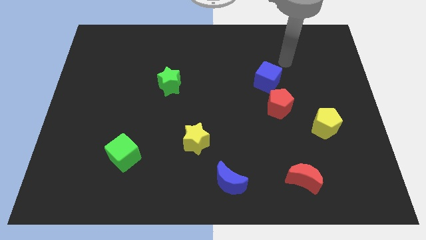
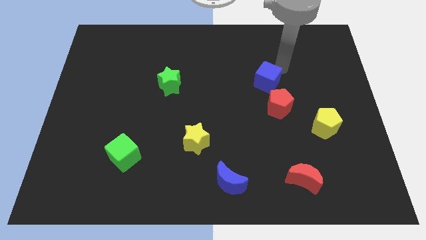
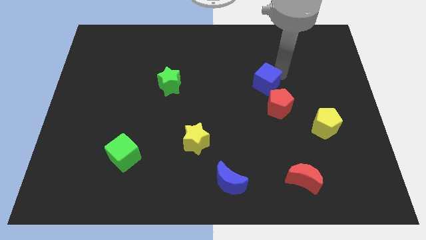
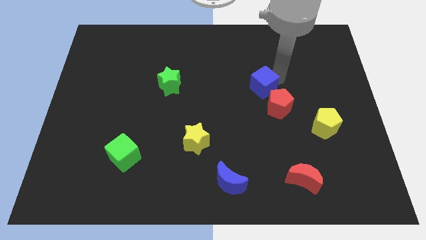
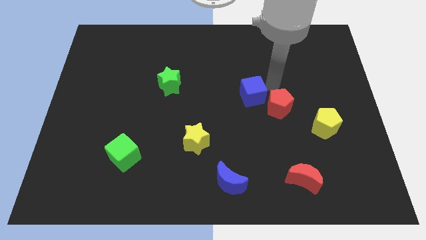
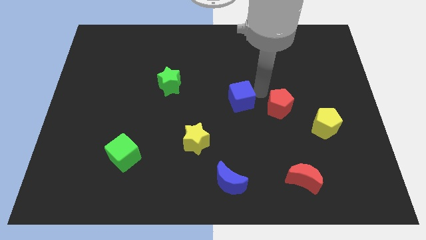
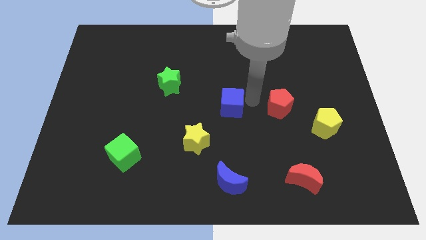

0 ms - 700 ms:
pull the red pentagon apart from the blue cube

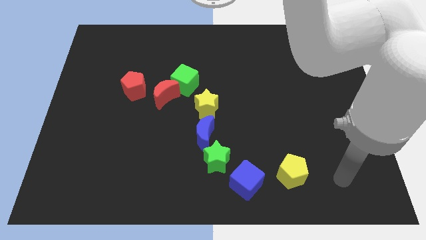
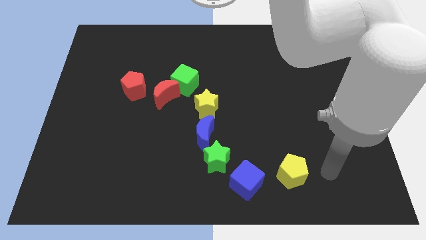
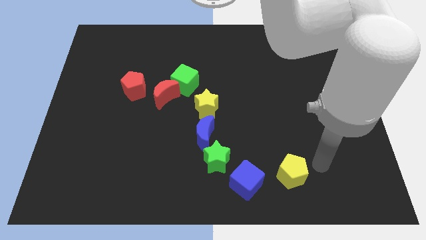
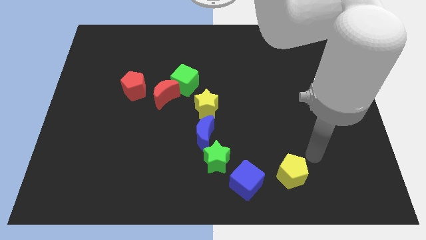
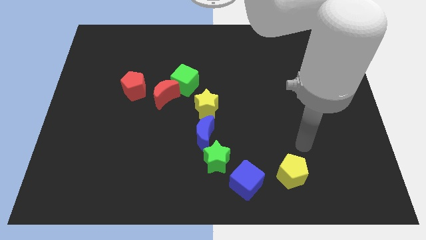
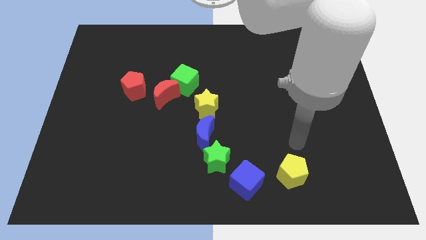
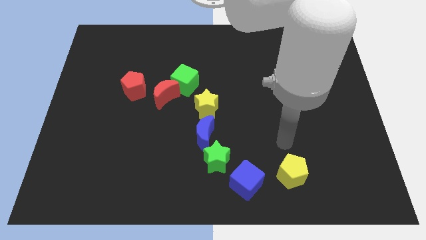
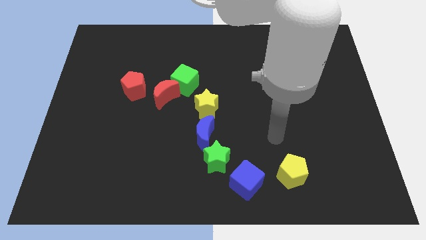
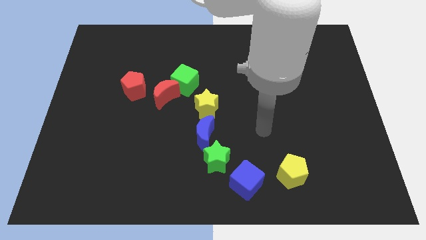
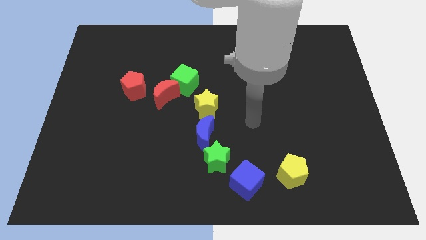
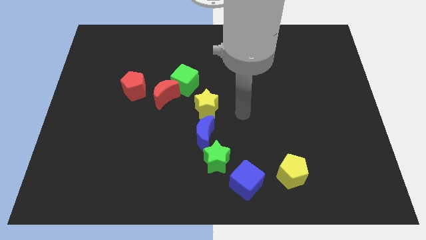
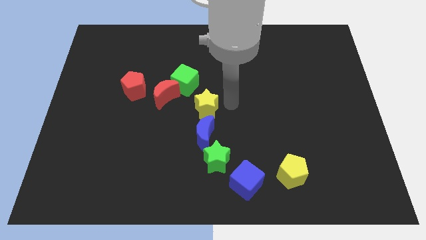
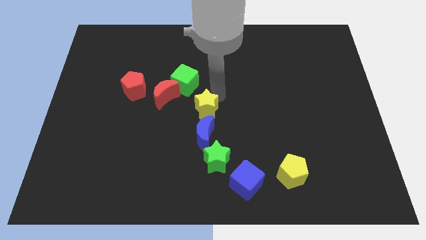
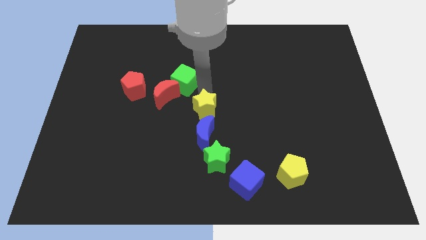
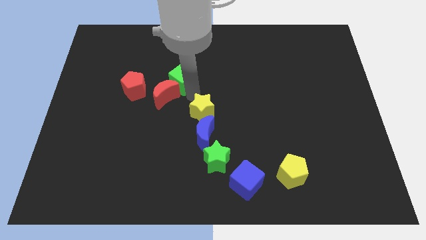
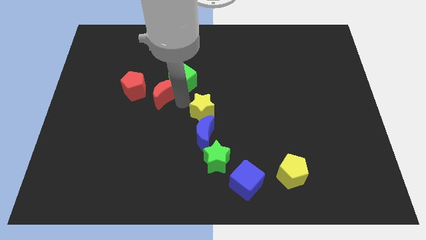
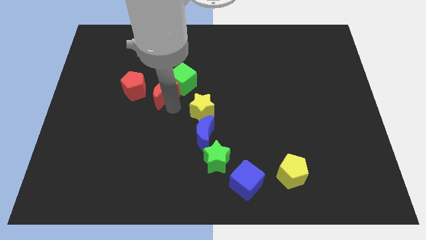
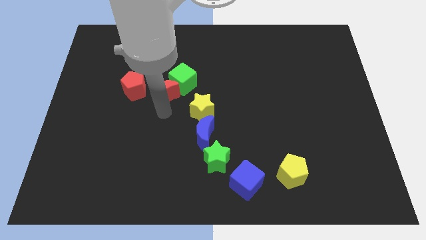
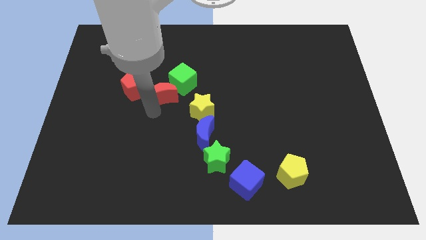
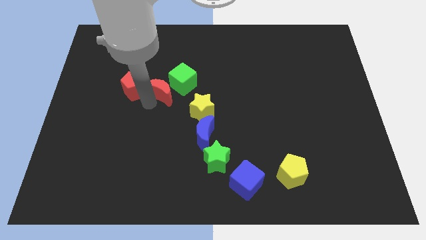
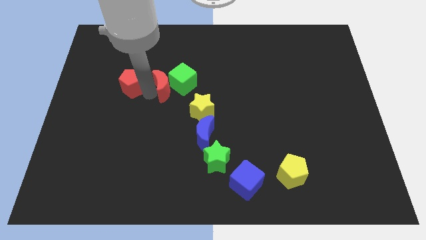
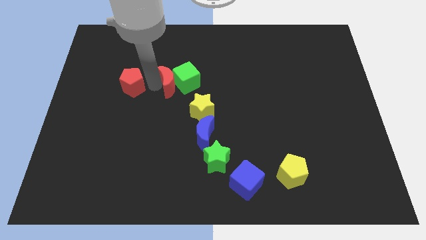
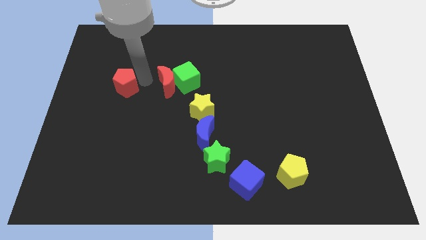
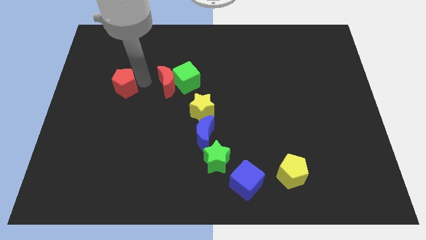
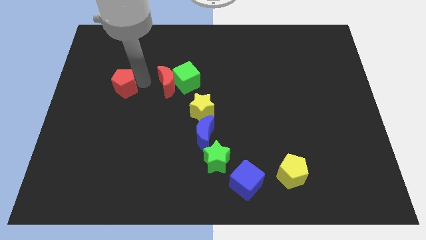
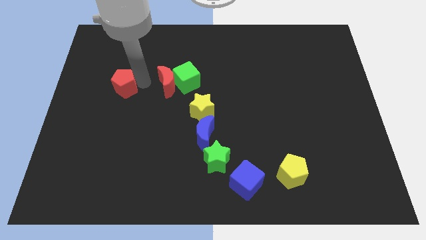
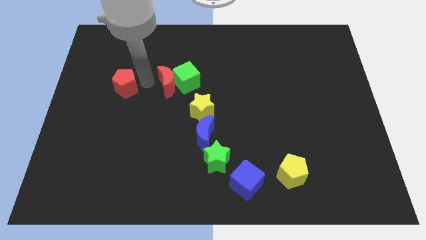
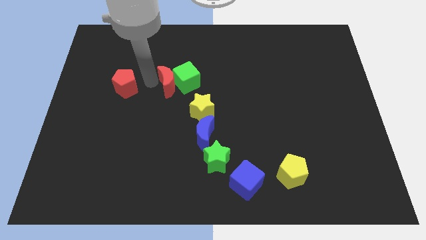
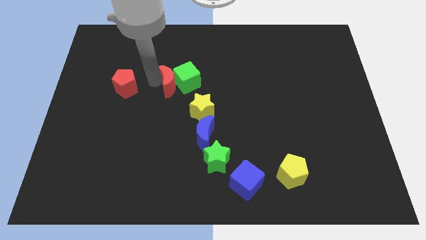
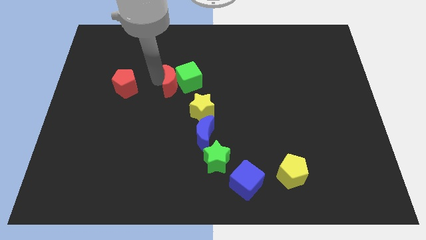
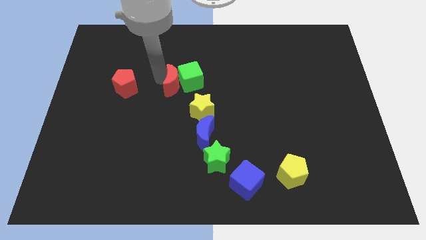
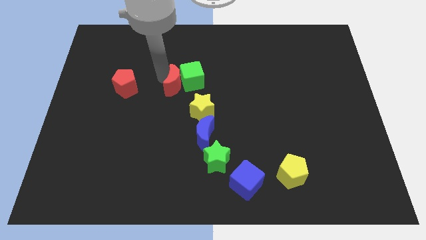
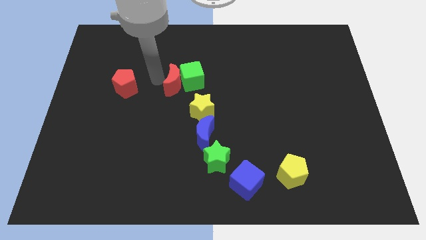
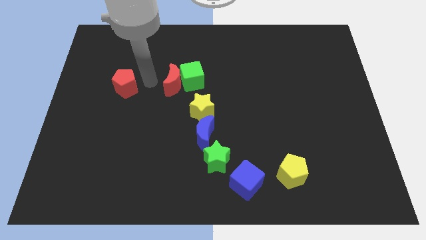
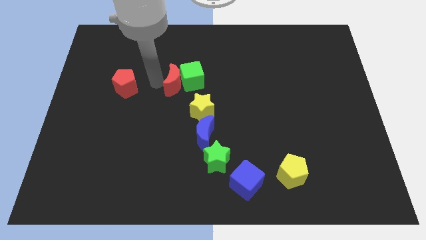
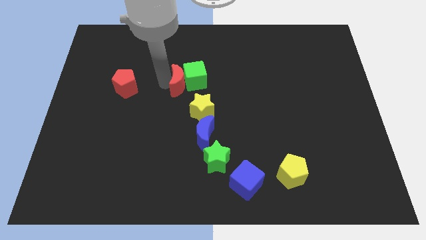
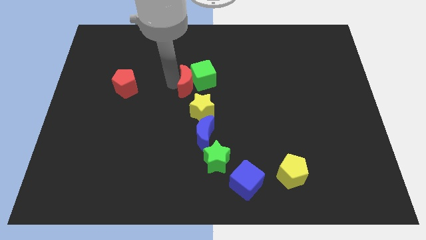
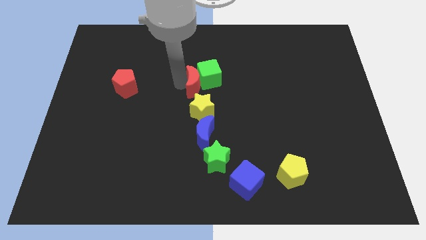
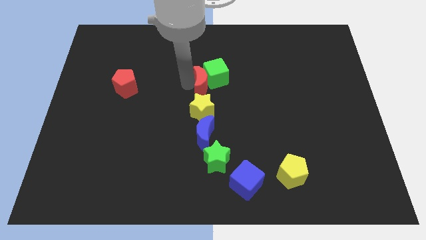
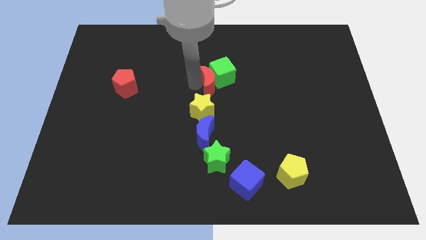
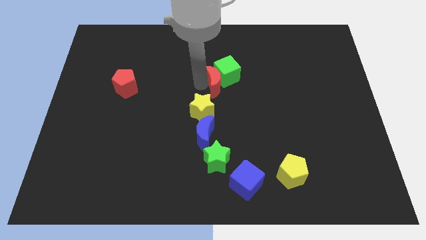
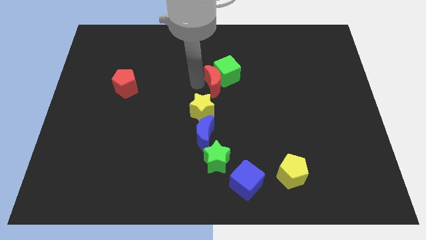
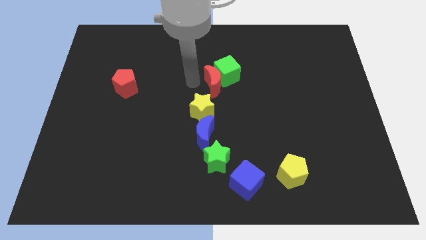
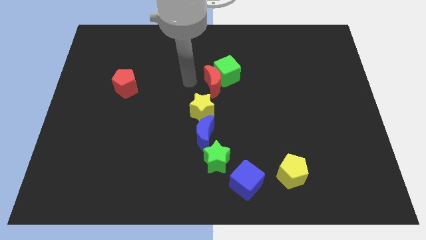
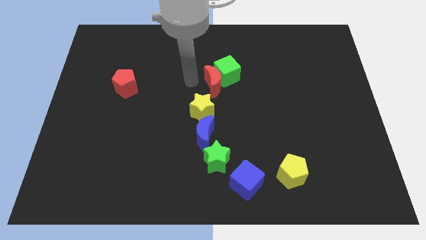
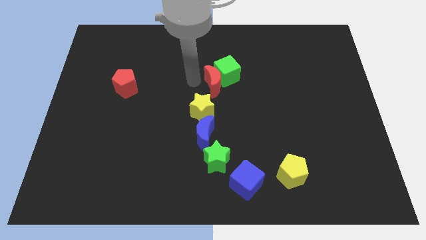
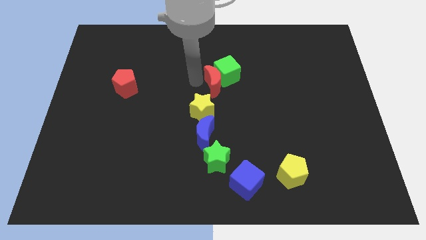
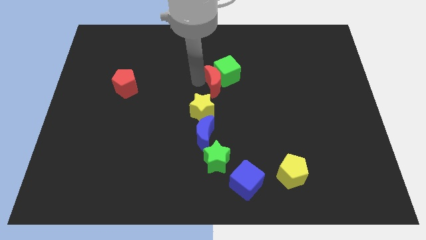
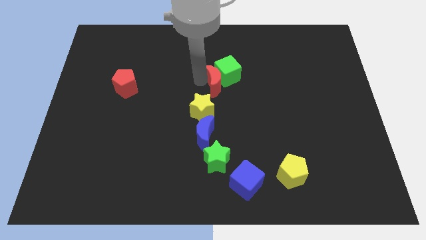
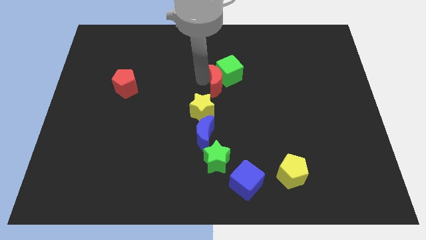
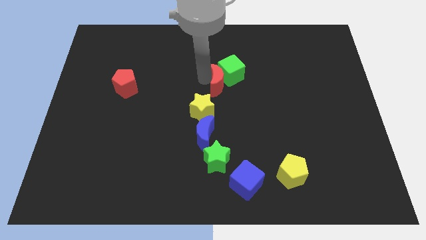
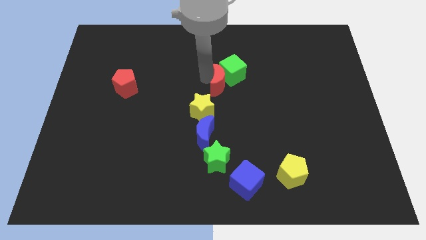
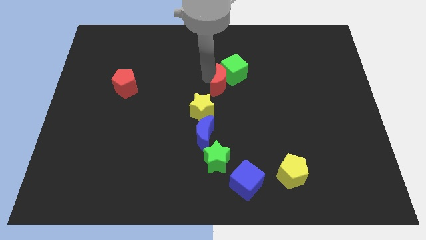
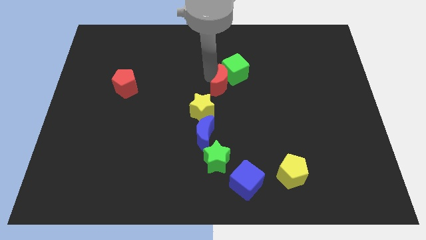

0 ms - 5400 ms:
separate the red moon from the green cube and red pentagon

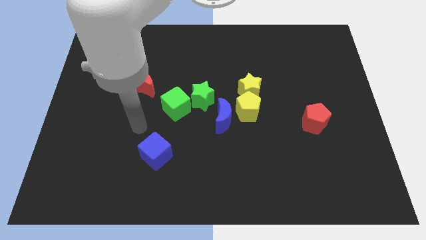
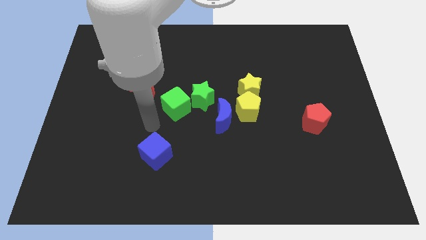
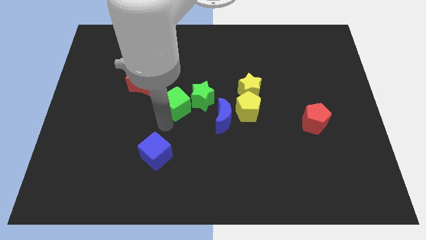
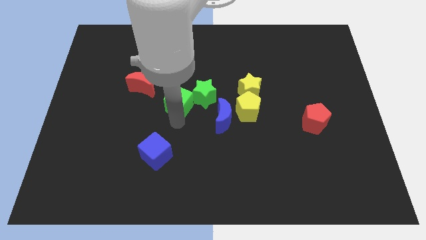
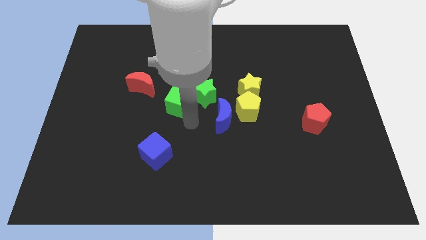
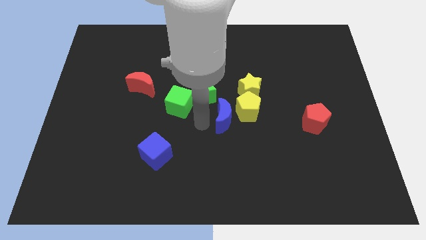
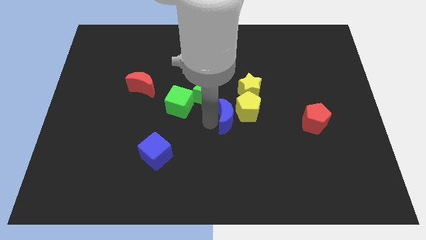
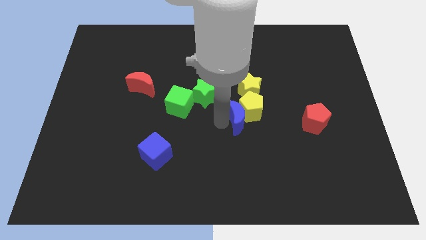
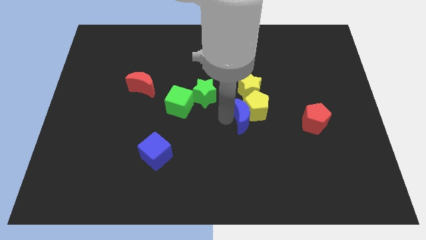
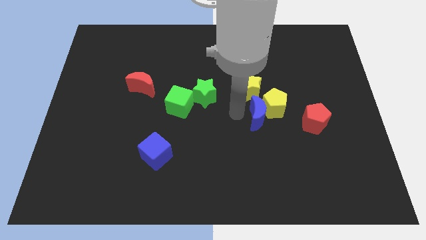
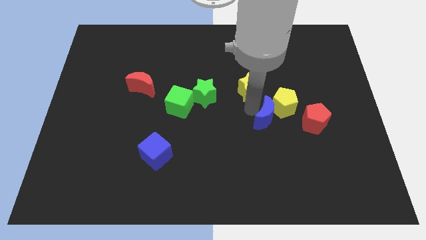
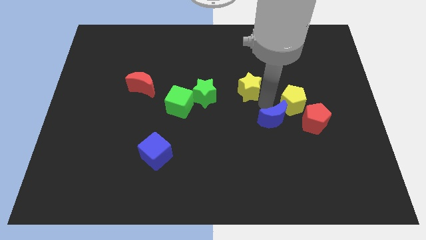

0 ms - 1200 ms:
separate the yellow star from the yellow pentagon

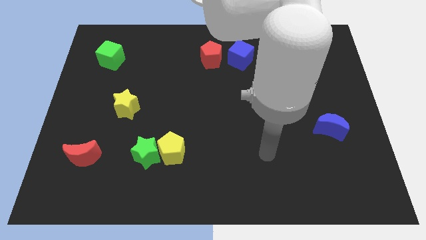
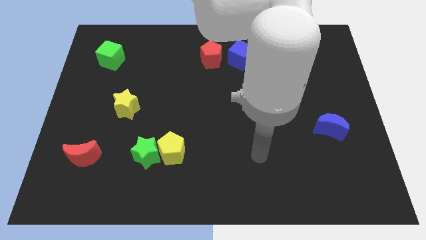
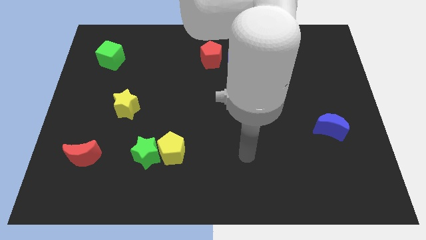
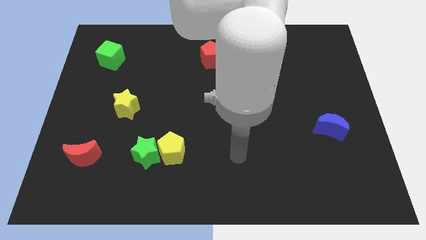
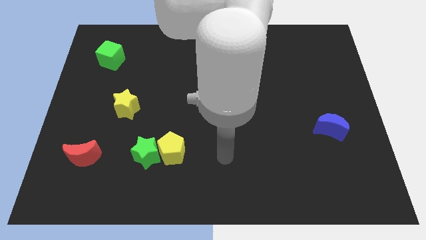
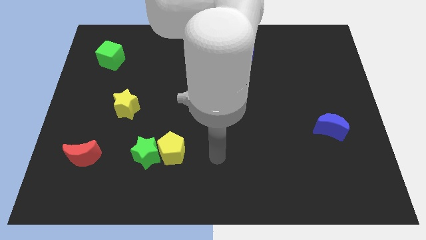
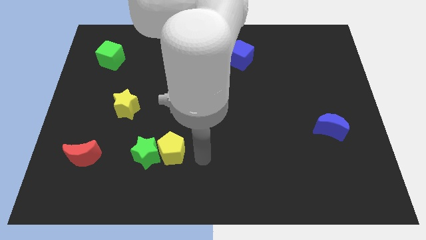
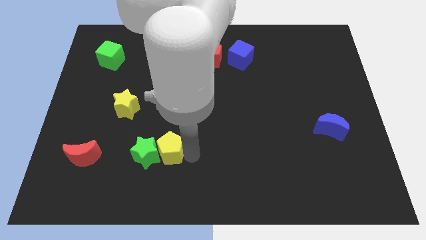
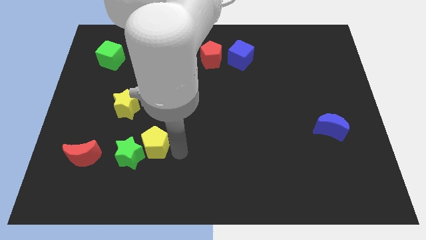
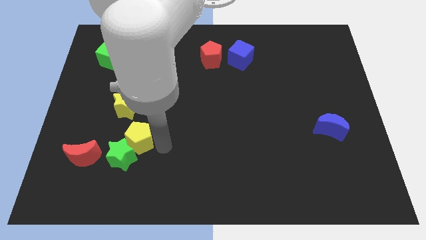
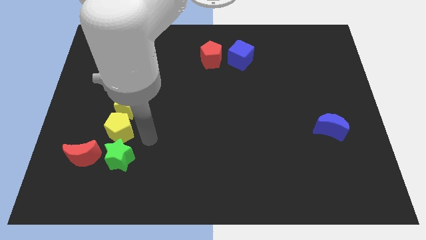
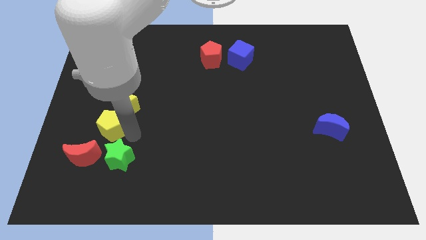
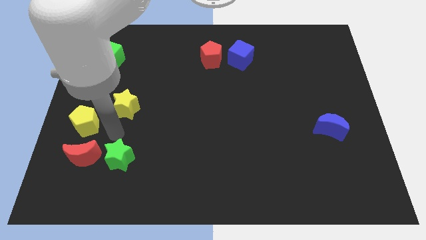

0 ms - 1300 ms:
move the green star away from the yellow pentagon

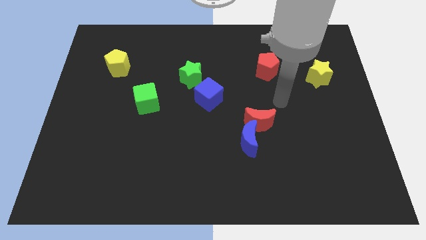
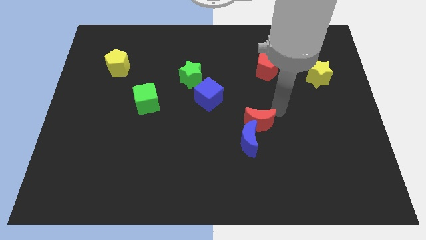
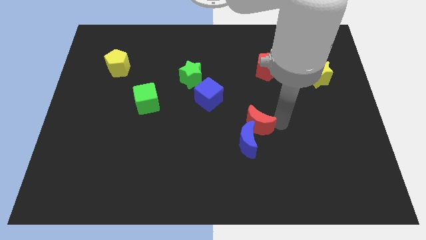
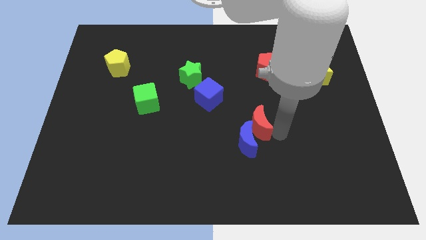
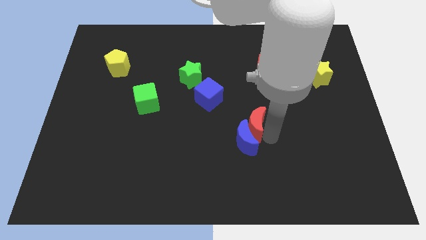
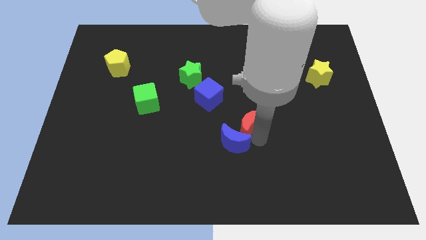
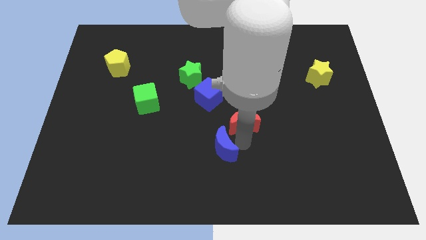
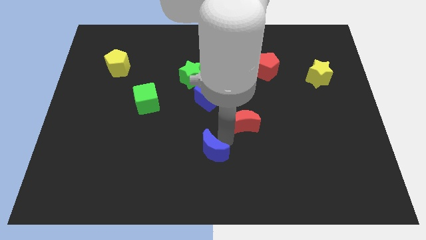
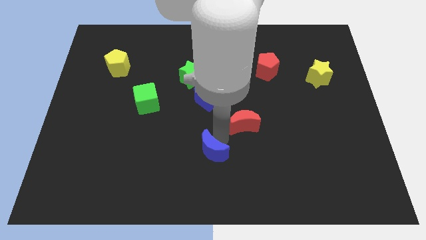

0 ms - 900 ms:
move the red moon away from the blue moon

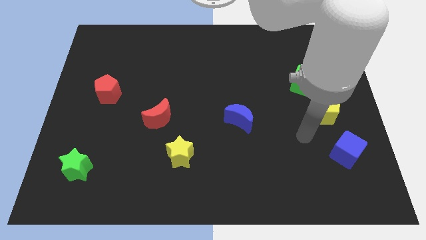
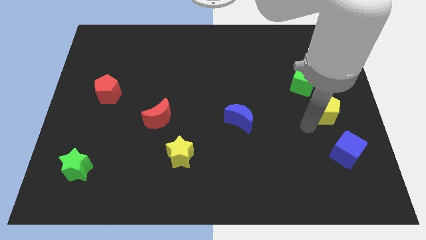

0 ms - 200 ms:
separate the green cube from the yellow pentagon
